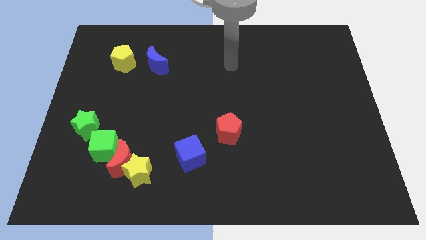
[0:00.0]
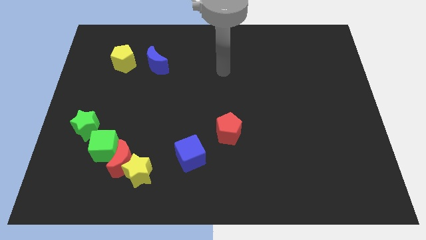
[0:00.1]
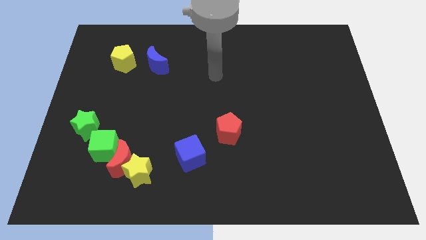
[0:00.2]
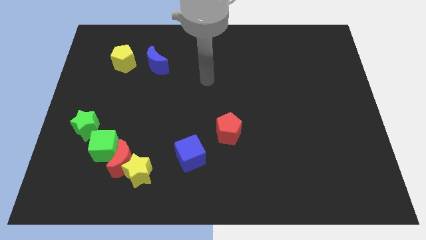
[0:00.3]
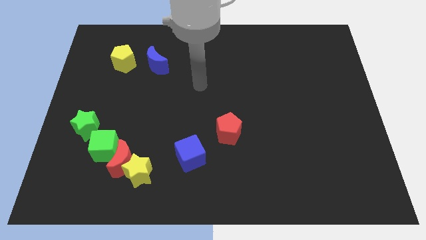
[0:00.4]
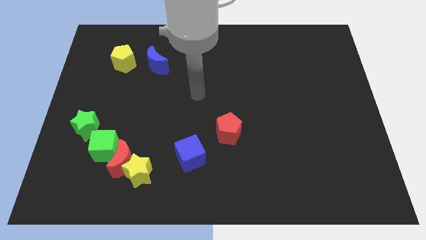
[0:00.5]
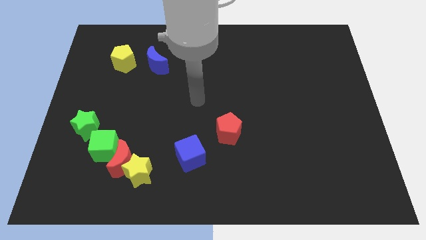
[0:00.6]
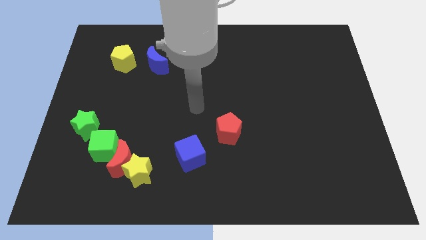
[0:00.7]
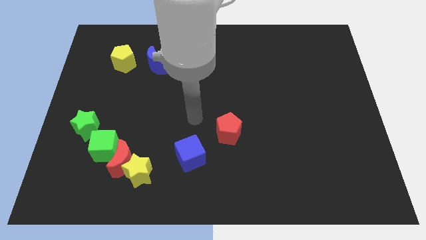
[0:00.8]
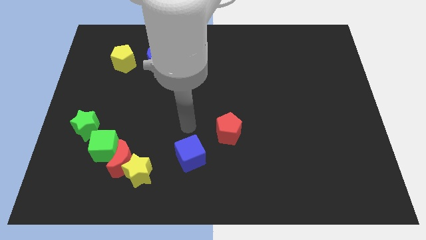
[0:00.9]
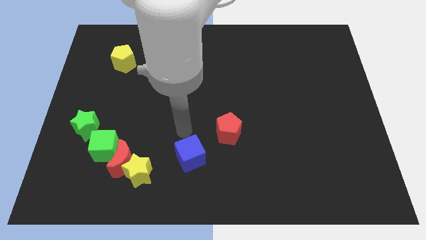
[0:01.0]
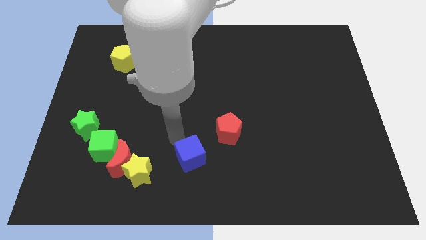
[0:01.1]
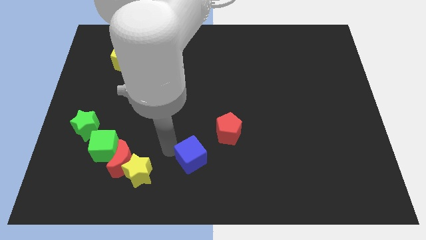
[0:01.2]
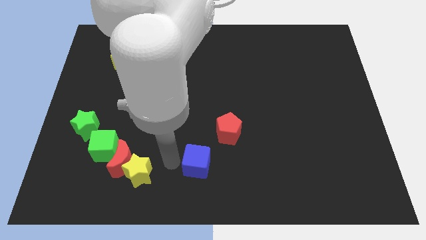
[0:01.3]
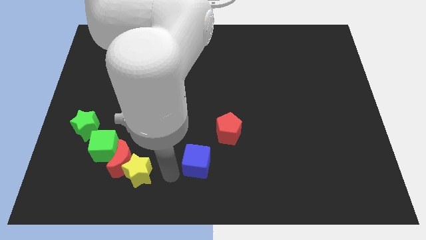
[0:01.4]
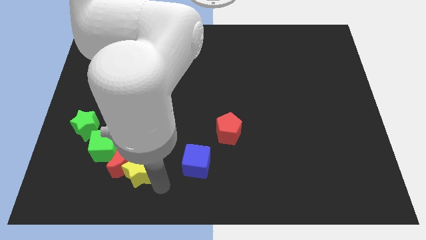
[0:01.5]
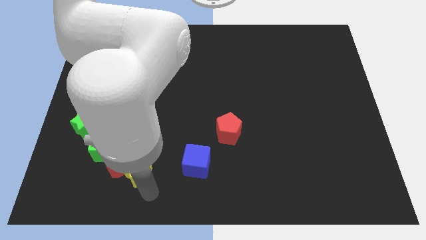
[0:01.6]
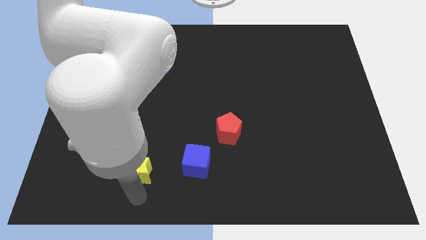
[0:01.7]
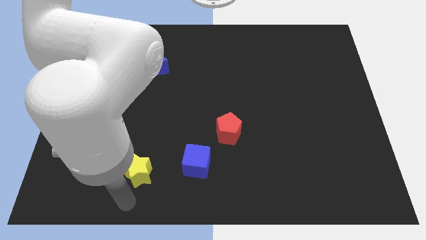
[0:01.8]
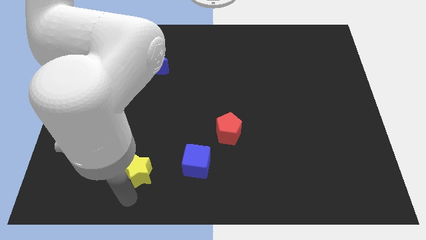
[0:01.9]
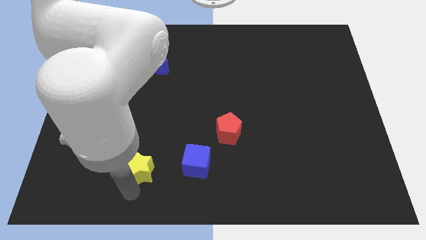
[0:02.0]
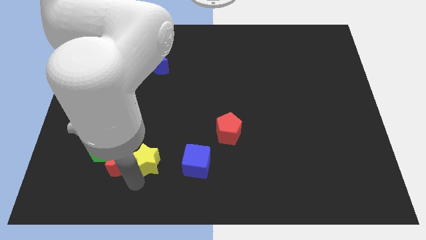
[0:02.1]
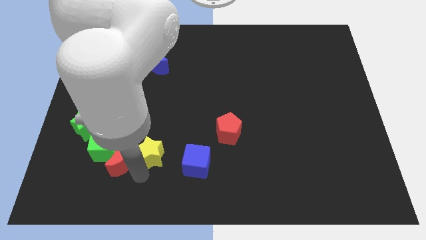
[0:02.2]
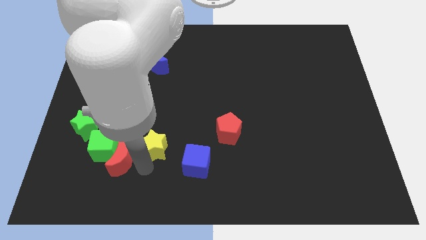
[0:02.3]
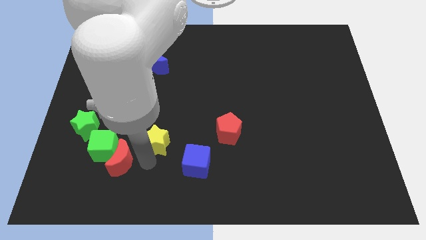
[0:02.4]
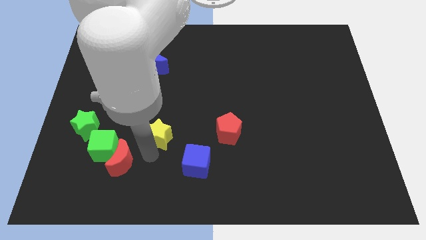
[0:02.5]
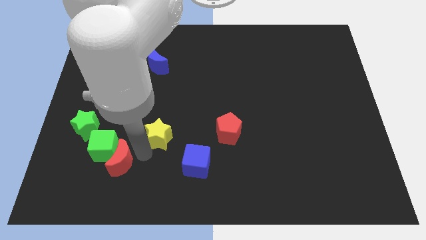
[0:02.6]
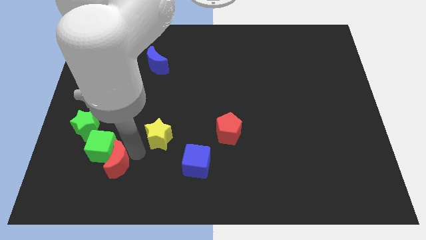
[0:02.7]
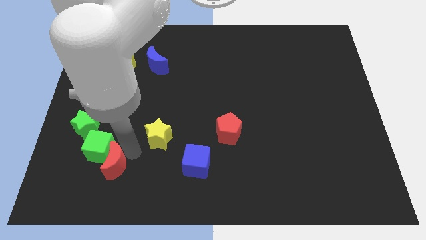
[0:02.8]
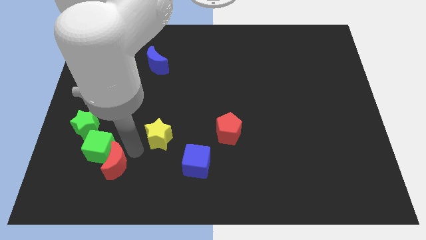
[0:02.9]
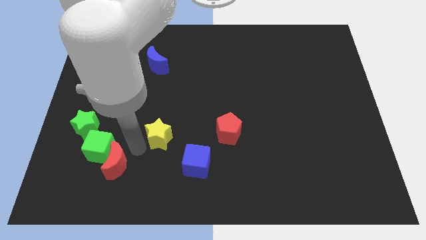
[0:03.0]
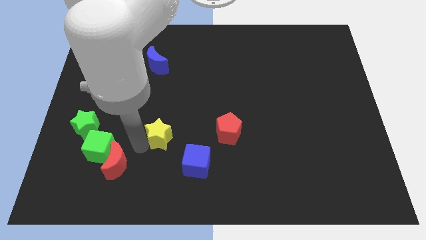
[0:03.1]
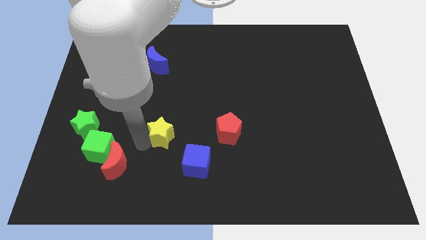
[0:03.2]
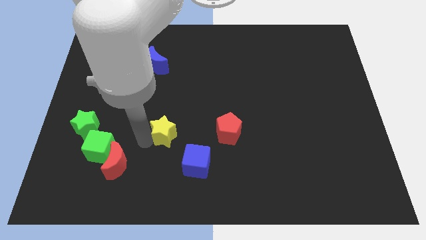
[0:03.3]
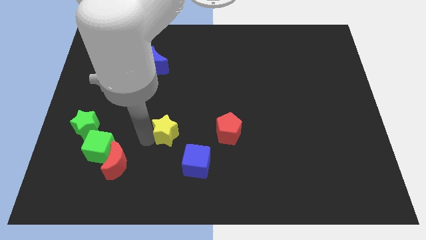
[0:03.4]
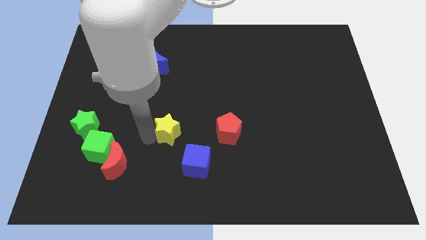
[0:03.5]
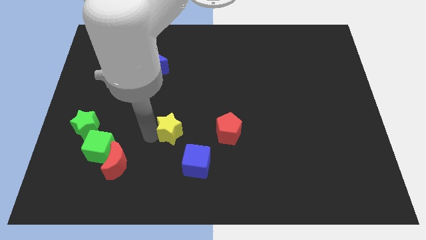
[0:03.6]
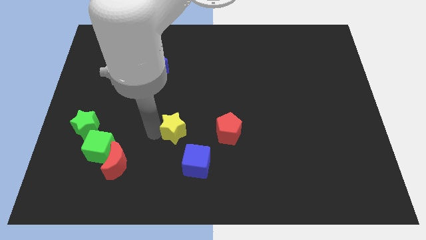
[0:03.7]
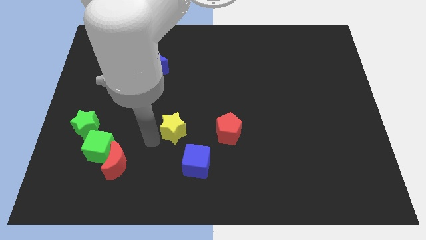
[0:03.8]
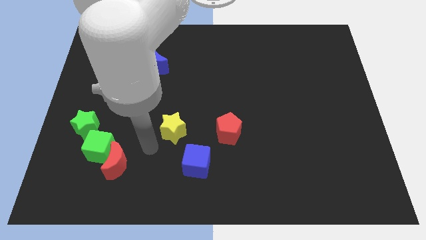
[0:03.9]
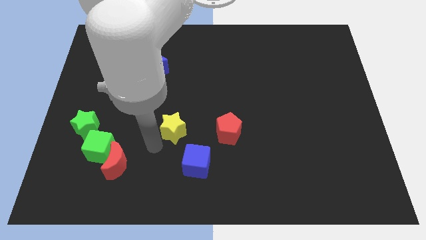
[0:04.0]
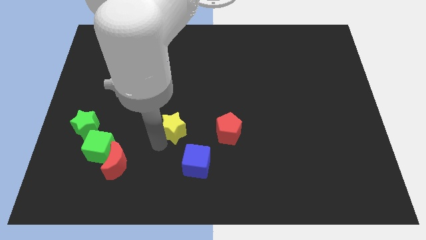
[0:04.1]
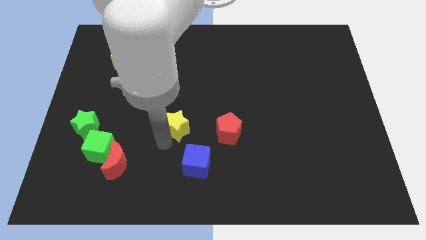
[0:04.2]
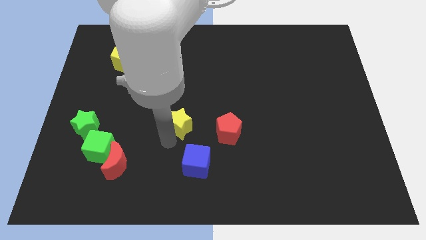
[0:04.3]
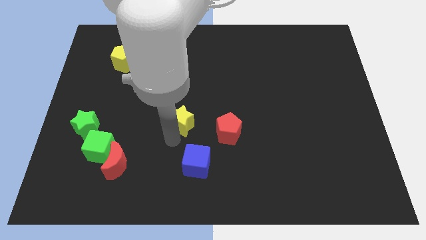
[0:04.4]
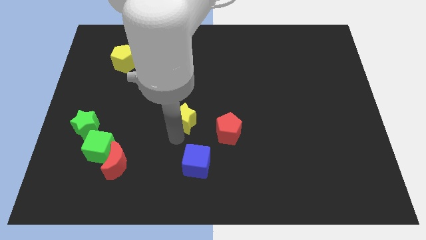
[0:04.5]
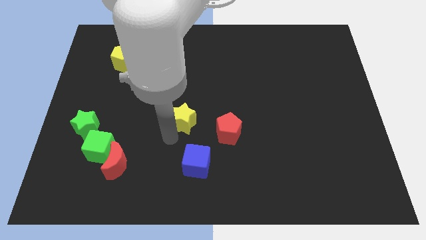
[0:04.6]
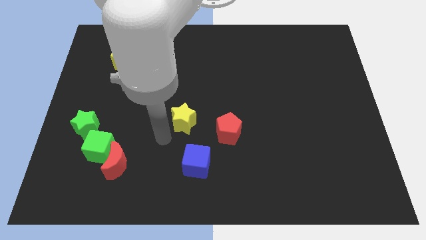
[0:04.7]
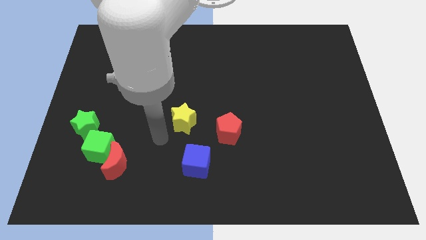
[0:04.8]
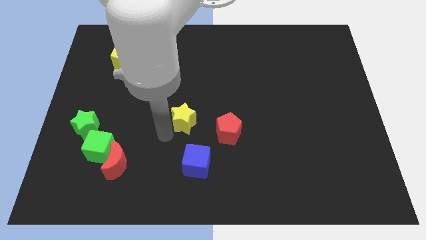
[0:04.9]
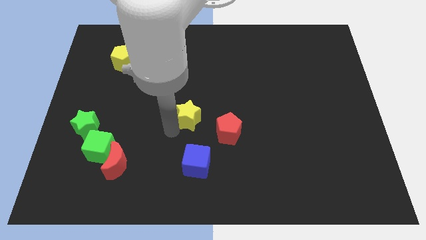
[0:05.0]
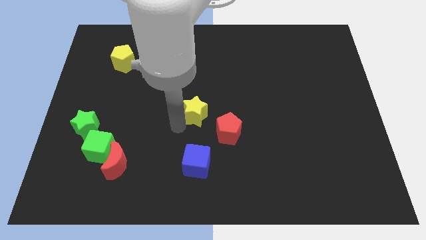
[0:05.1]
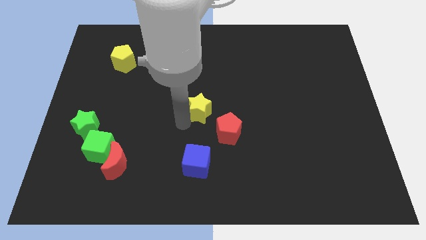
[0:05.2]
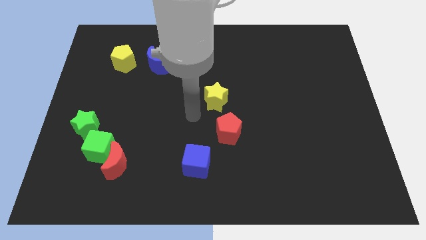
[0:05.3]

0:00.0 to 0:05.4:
push the yellow star up and to the right diagonally

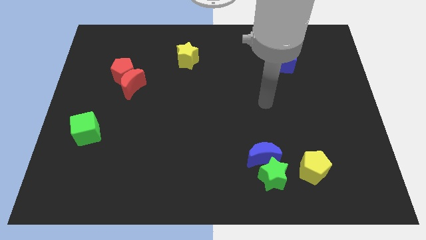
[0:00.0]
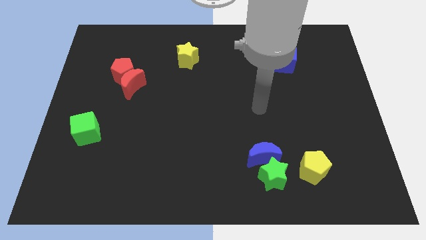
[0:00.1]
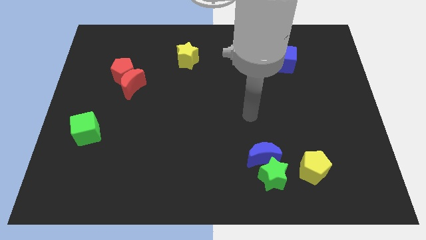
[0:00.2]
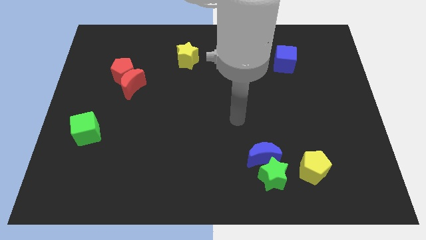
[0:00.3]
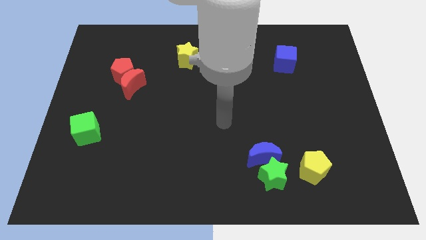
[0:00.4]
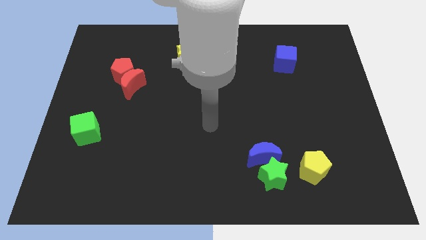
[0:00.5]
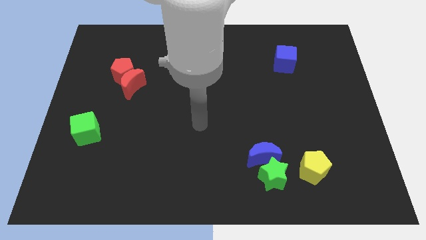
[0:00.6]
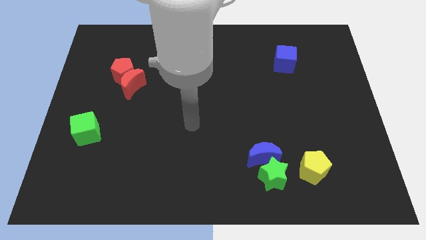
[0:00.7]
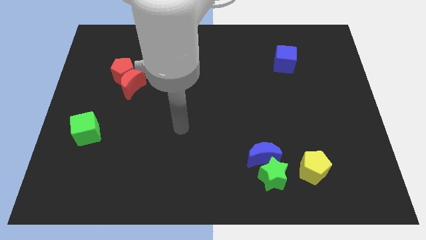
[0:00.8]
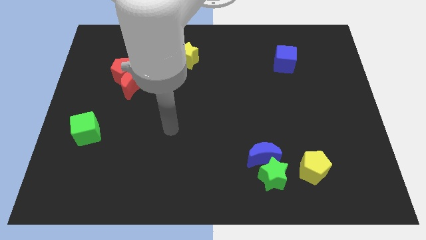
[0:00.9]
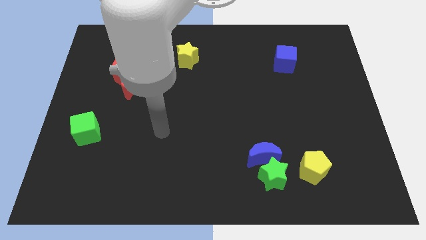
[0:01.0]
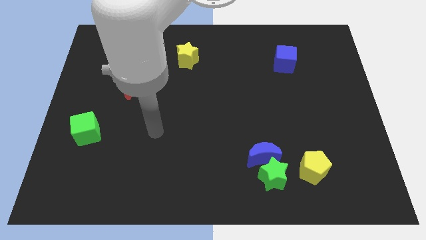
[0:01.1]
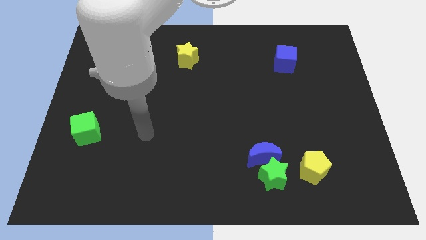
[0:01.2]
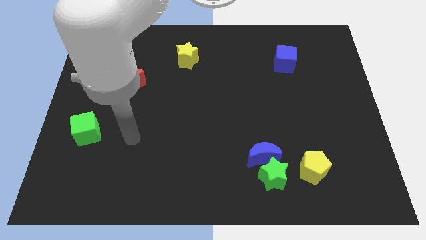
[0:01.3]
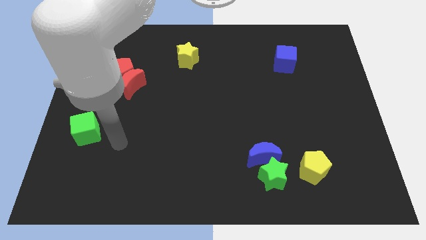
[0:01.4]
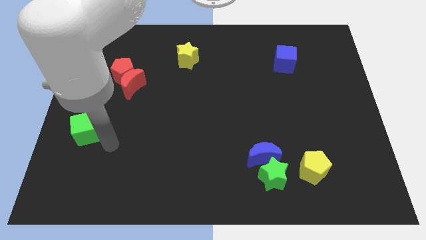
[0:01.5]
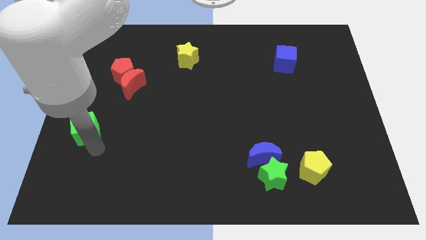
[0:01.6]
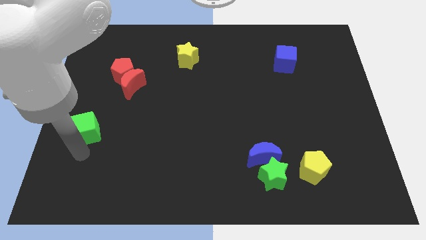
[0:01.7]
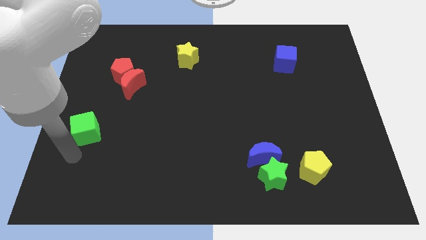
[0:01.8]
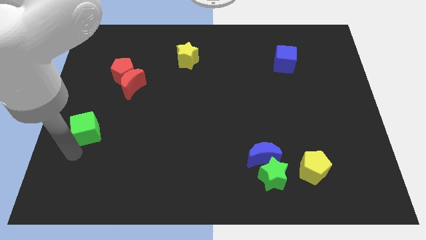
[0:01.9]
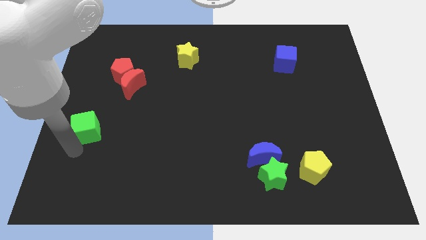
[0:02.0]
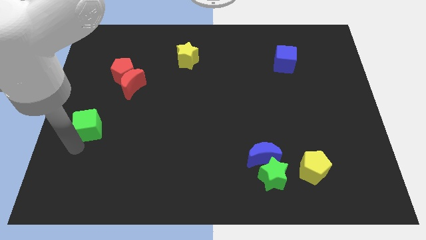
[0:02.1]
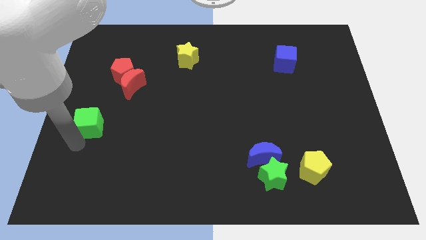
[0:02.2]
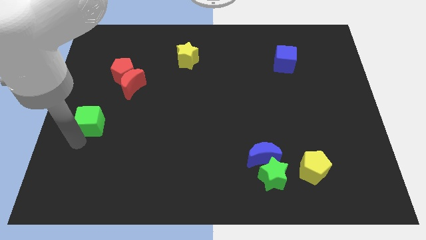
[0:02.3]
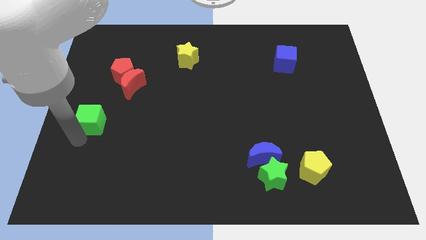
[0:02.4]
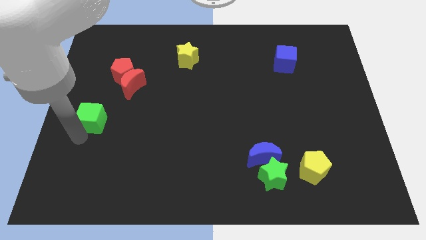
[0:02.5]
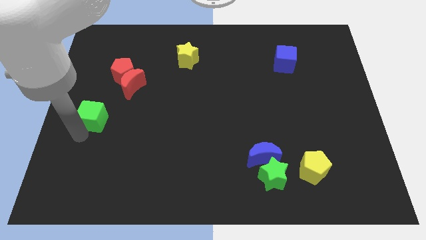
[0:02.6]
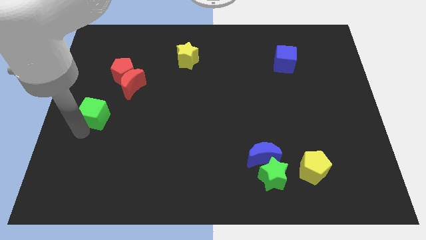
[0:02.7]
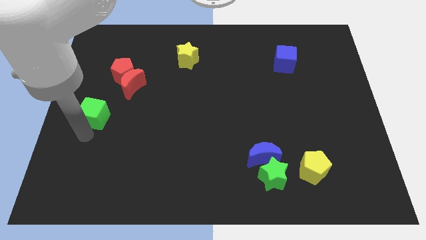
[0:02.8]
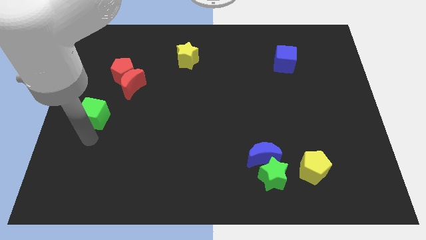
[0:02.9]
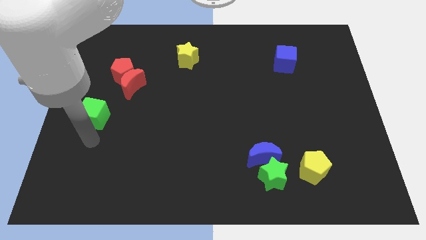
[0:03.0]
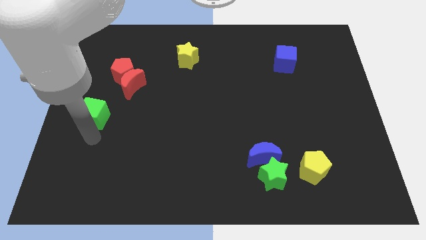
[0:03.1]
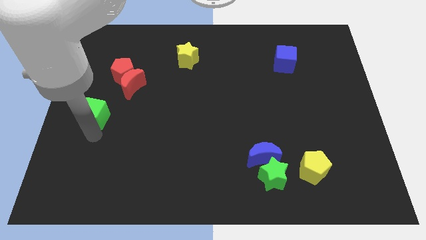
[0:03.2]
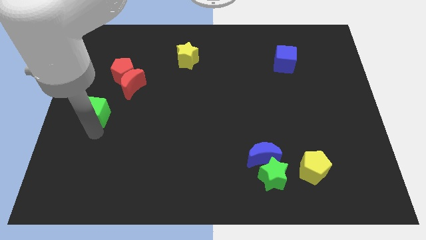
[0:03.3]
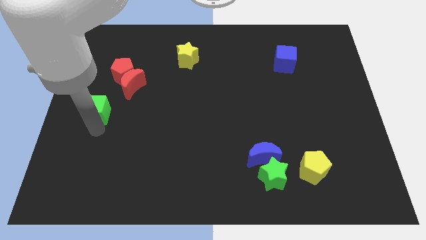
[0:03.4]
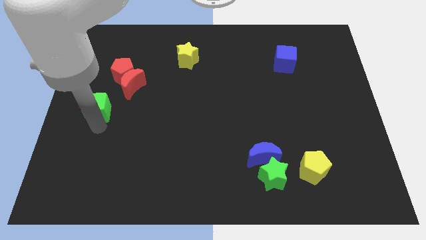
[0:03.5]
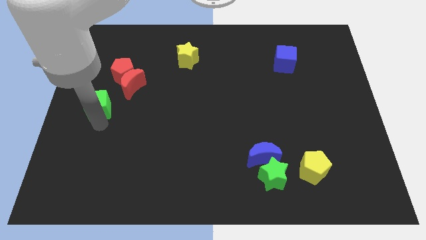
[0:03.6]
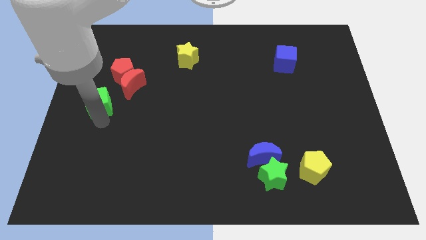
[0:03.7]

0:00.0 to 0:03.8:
slightly push the green cube upwards
